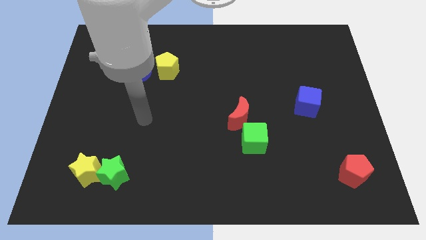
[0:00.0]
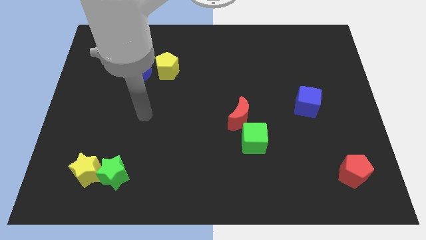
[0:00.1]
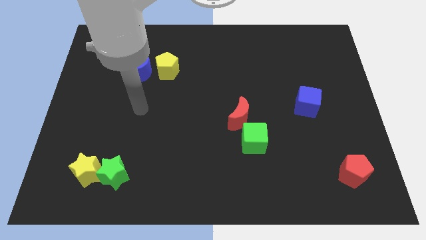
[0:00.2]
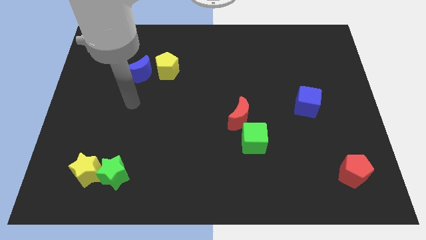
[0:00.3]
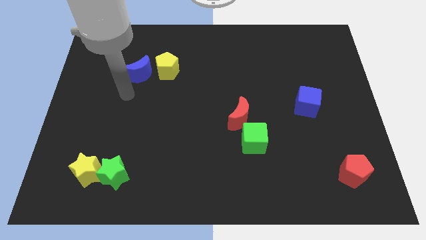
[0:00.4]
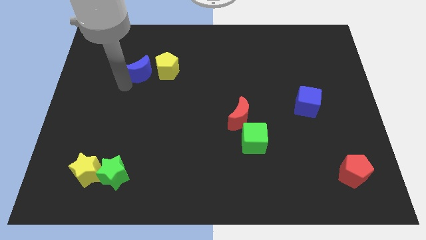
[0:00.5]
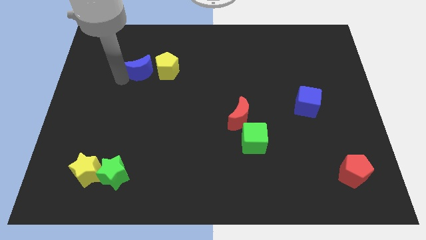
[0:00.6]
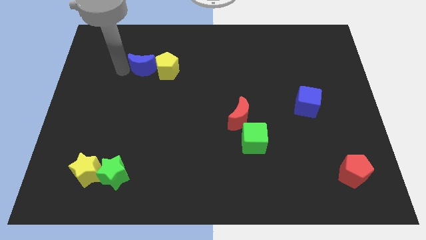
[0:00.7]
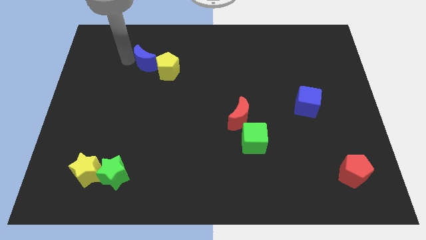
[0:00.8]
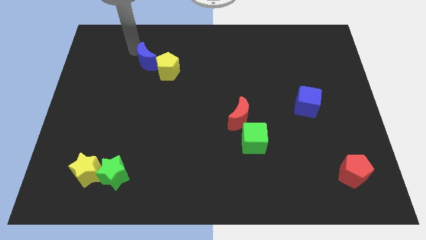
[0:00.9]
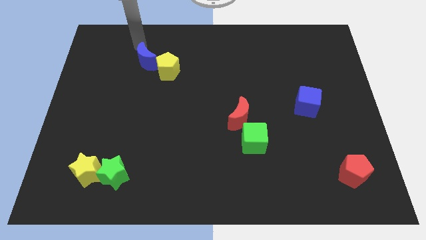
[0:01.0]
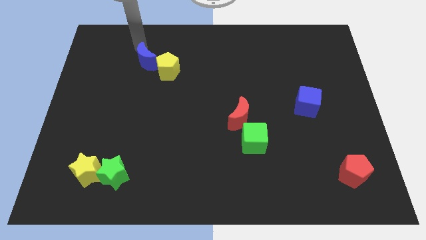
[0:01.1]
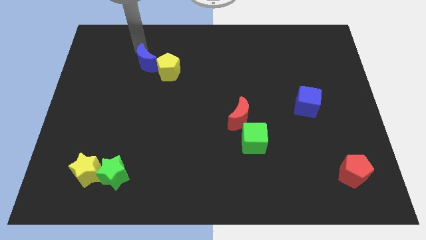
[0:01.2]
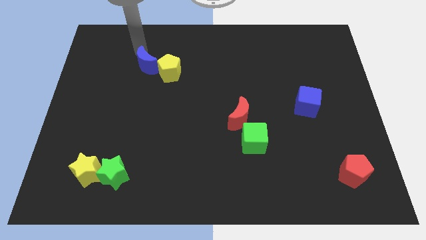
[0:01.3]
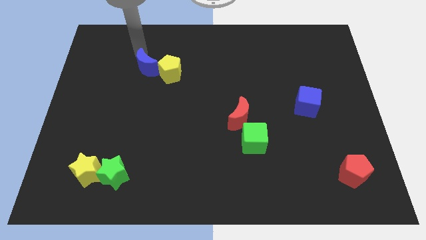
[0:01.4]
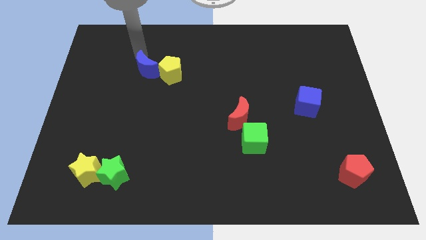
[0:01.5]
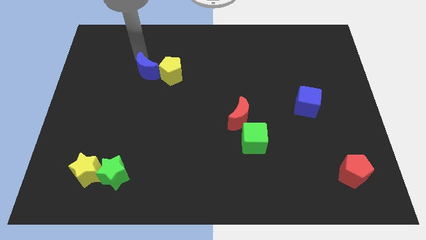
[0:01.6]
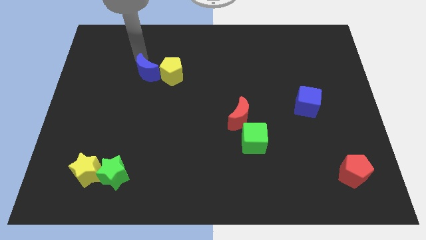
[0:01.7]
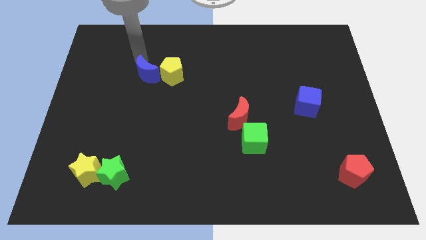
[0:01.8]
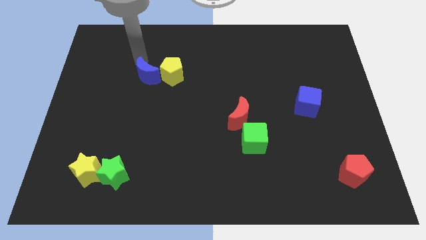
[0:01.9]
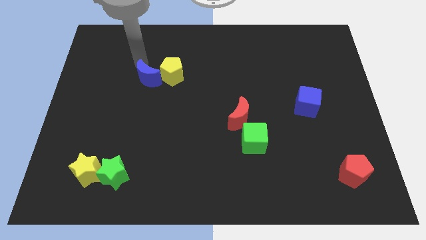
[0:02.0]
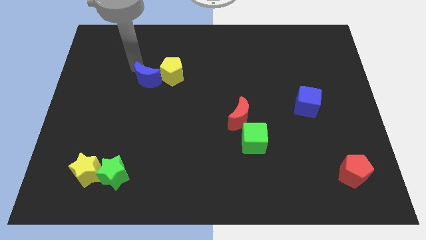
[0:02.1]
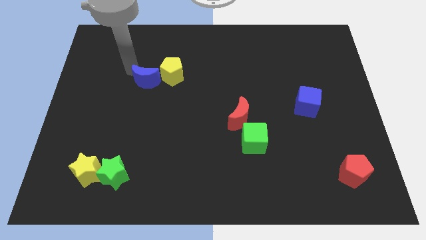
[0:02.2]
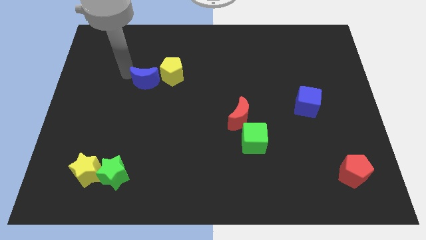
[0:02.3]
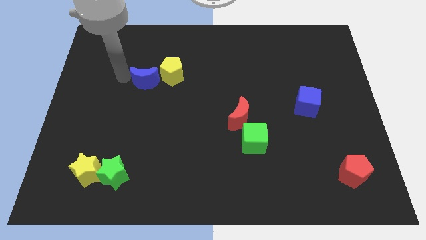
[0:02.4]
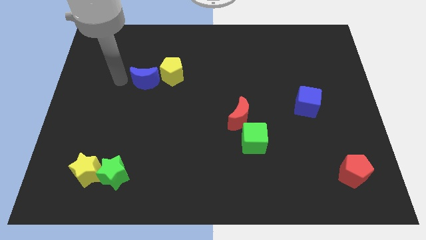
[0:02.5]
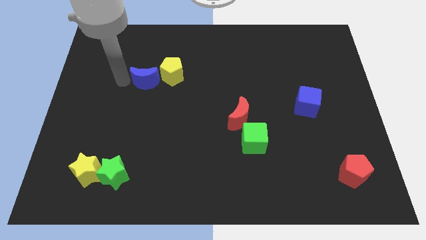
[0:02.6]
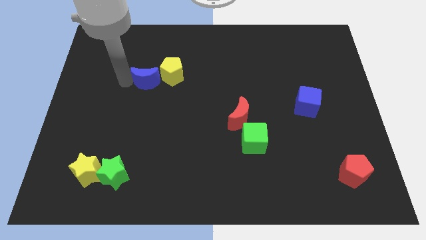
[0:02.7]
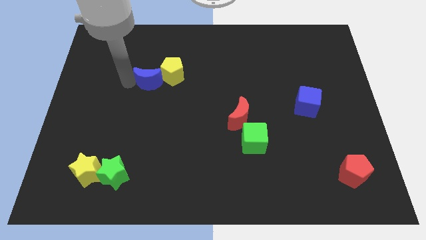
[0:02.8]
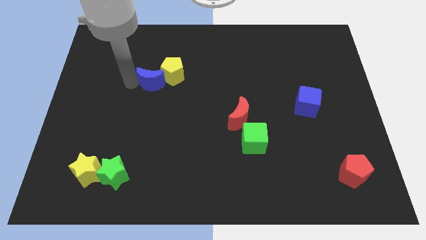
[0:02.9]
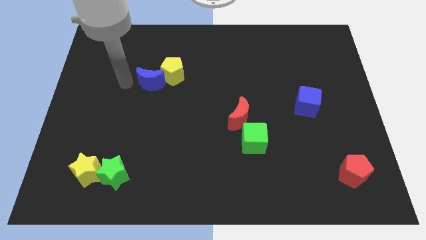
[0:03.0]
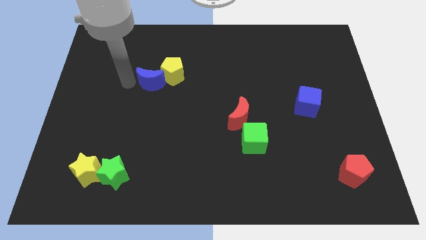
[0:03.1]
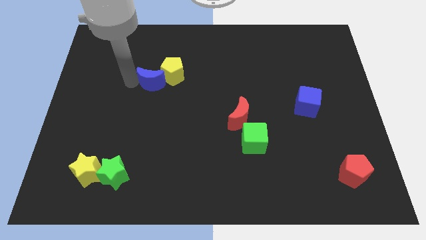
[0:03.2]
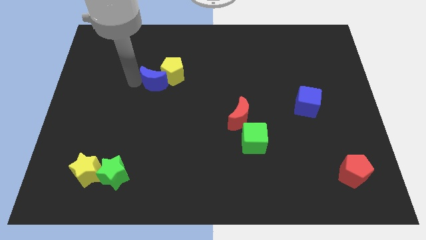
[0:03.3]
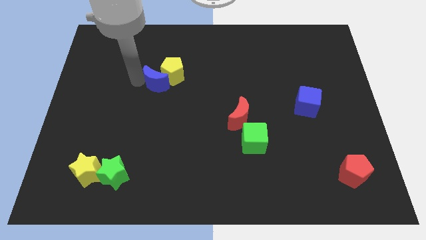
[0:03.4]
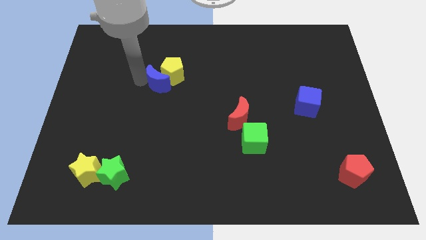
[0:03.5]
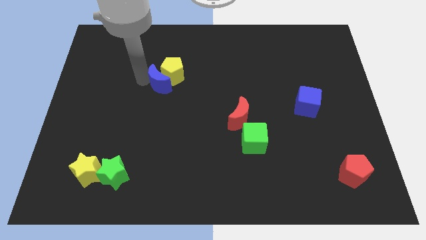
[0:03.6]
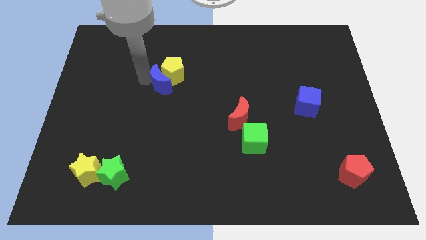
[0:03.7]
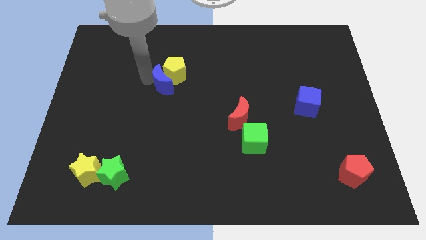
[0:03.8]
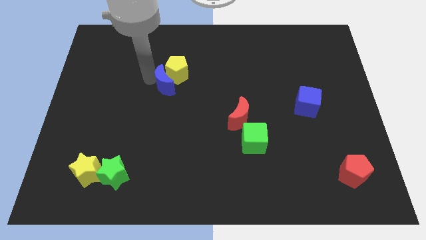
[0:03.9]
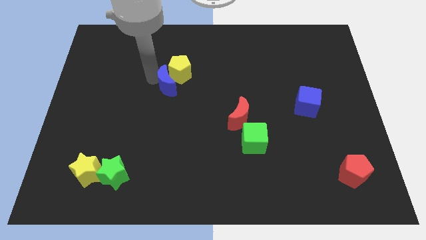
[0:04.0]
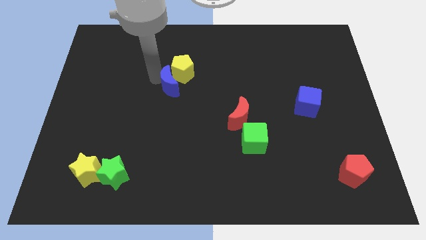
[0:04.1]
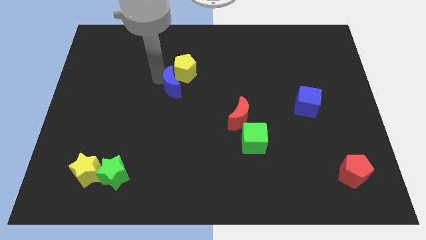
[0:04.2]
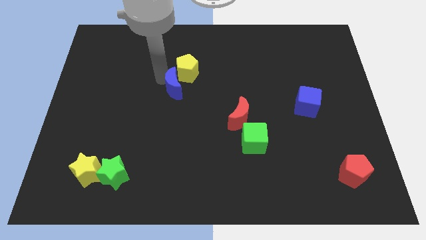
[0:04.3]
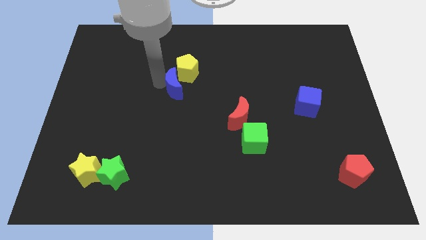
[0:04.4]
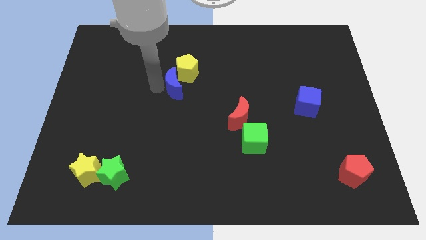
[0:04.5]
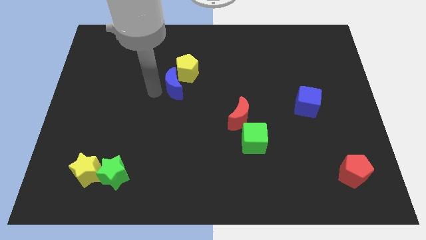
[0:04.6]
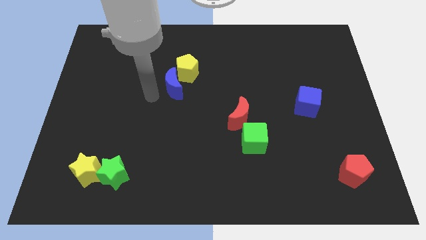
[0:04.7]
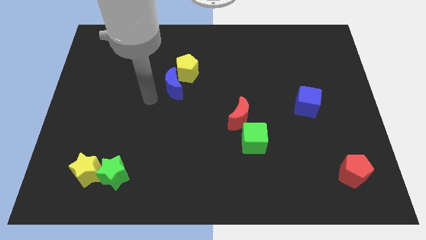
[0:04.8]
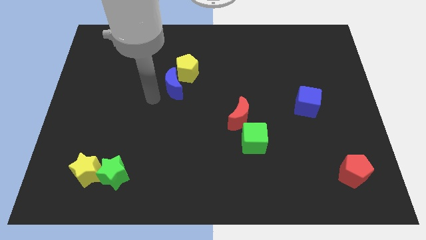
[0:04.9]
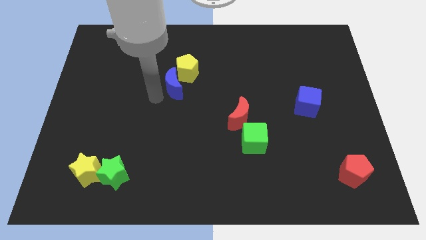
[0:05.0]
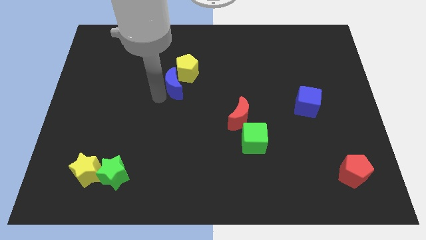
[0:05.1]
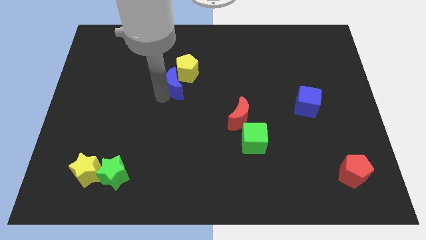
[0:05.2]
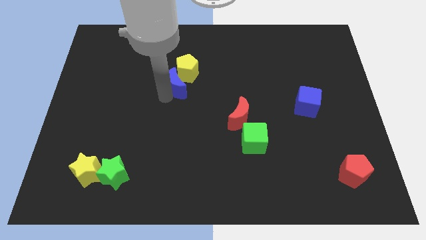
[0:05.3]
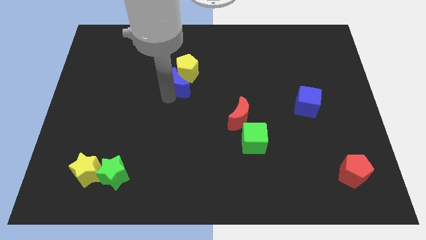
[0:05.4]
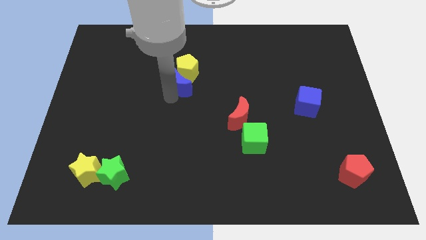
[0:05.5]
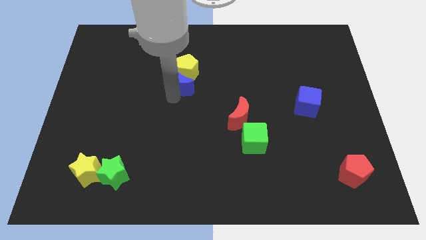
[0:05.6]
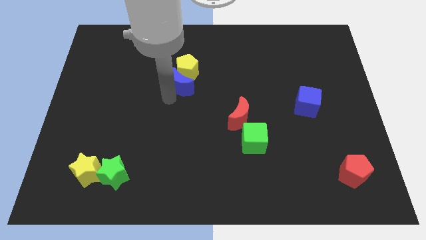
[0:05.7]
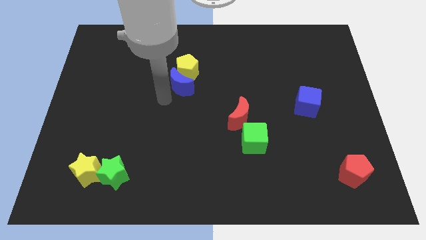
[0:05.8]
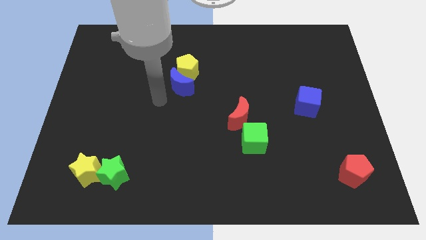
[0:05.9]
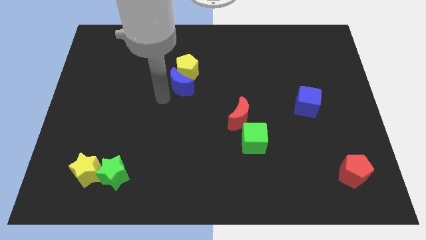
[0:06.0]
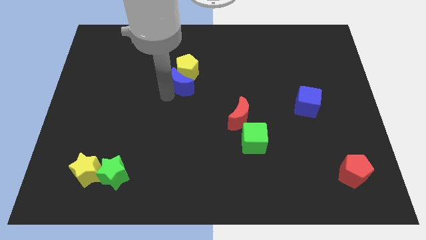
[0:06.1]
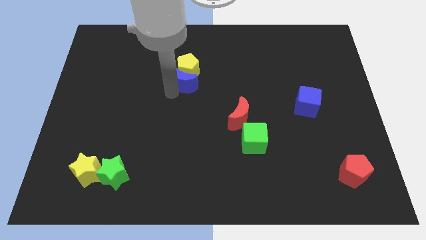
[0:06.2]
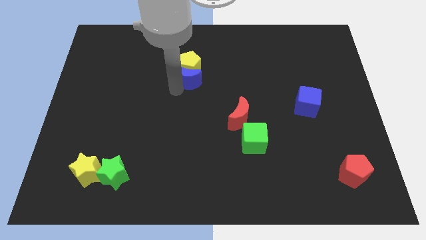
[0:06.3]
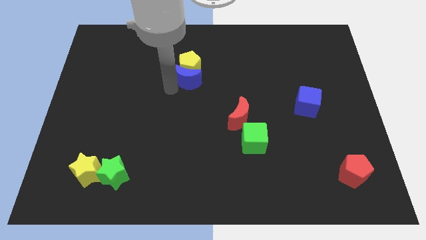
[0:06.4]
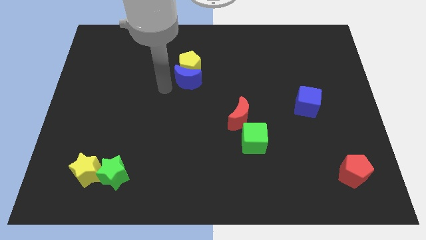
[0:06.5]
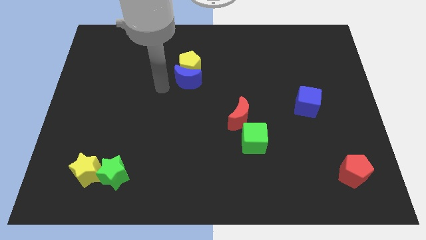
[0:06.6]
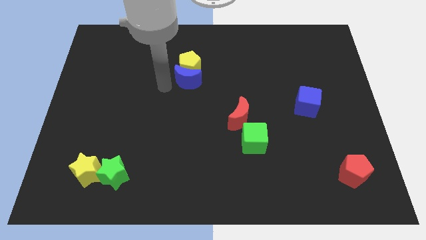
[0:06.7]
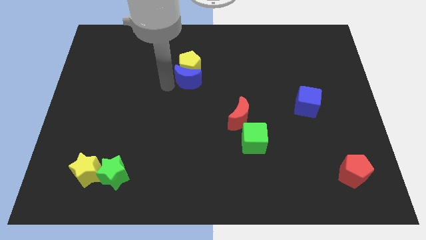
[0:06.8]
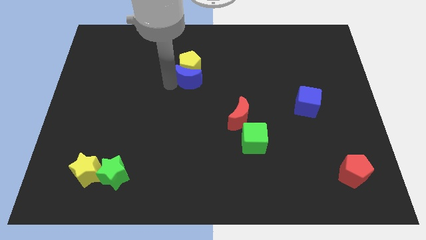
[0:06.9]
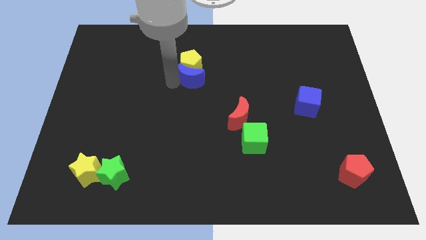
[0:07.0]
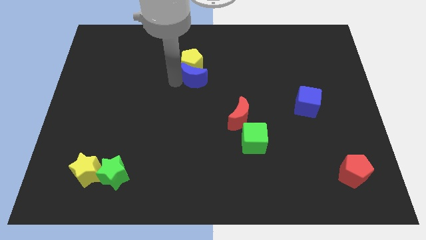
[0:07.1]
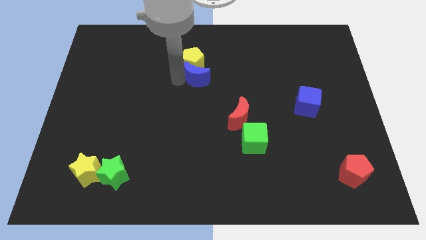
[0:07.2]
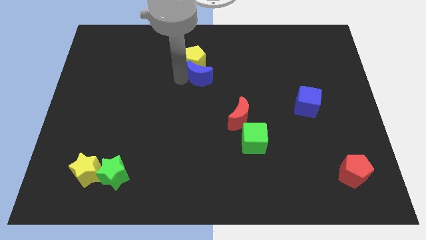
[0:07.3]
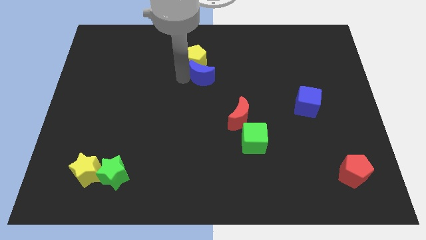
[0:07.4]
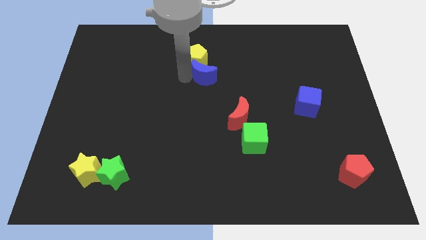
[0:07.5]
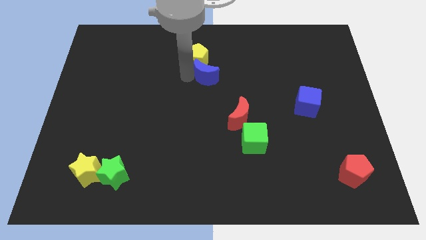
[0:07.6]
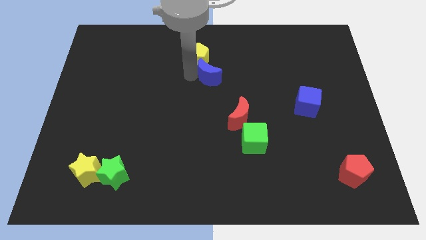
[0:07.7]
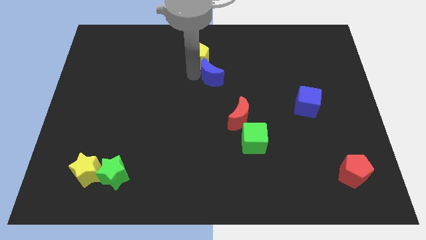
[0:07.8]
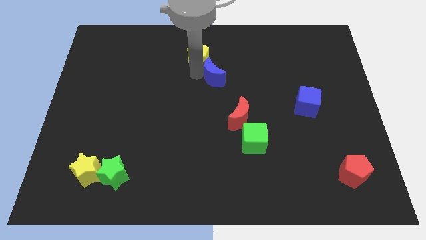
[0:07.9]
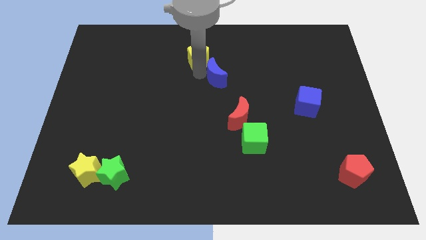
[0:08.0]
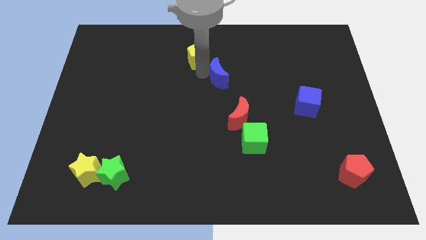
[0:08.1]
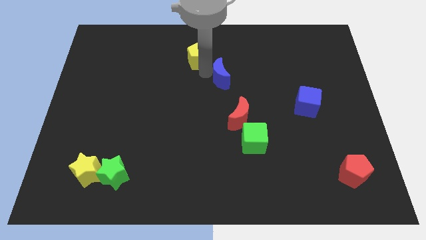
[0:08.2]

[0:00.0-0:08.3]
move the blue moon to the right
